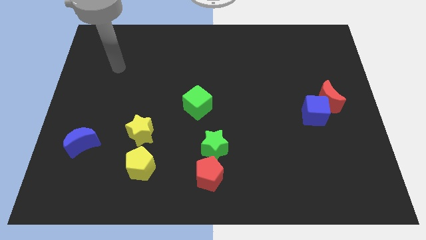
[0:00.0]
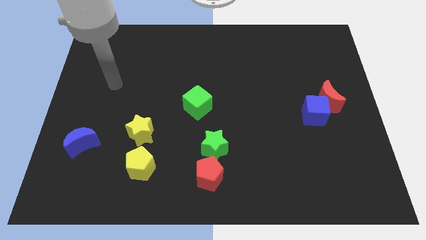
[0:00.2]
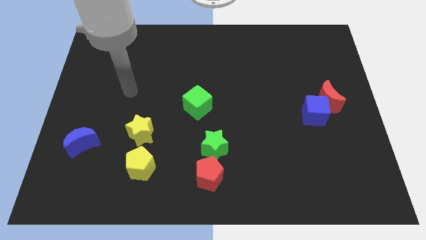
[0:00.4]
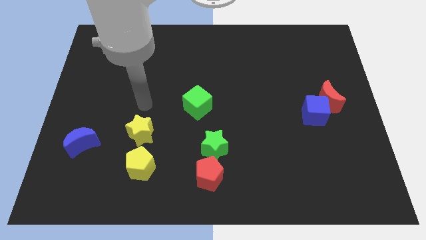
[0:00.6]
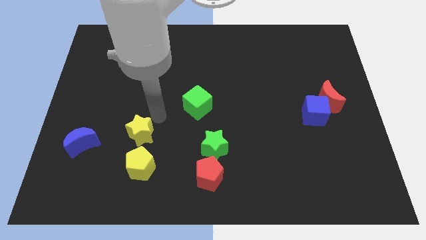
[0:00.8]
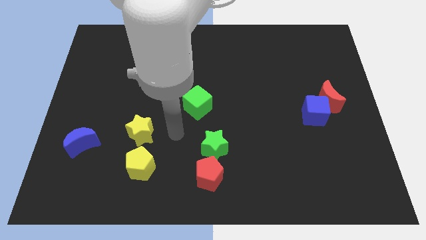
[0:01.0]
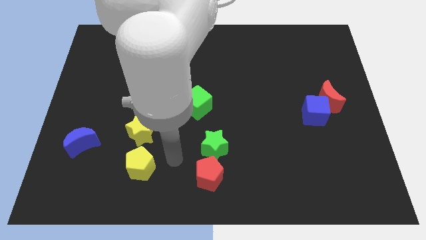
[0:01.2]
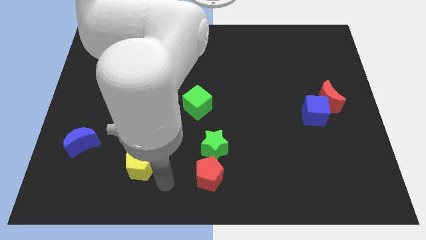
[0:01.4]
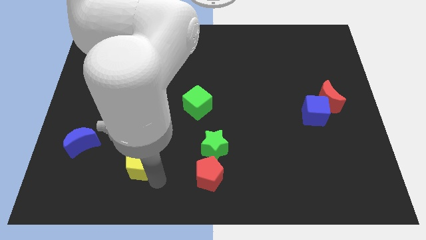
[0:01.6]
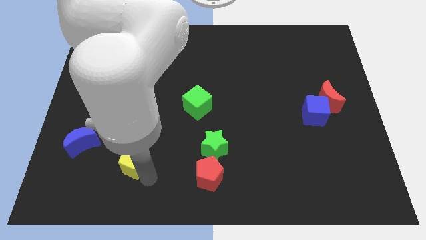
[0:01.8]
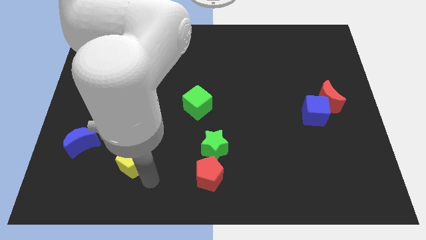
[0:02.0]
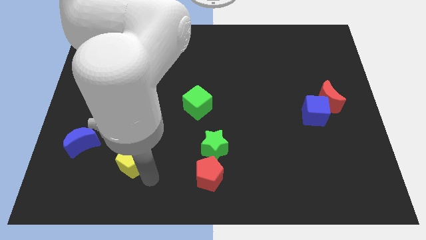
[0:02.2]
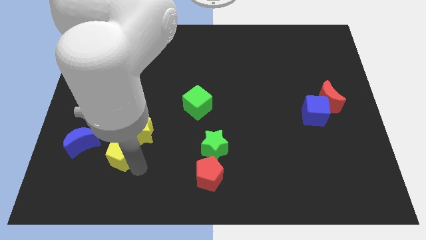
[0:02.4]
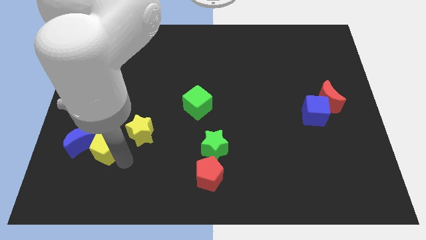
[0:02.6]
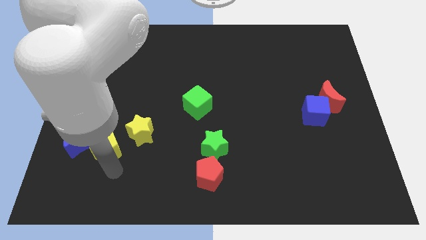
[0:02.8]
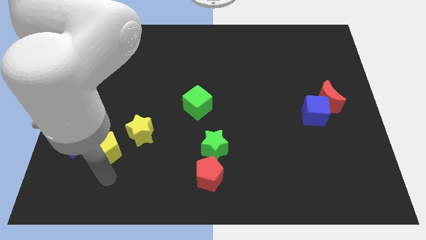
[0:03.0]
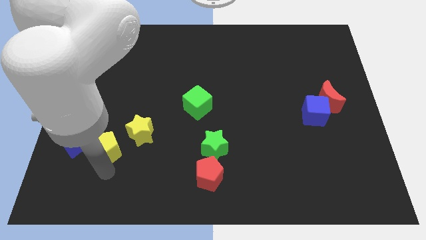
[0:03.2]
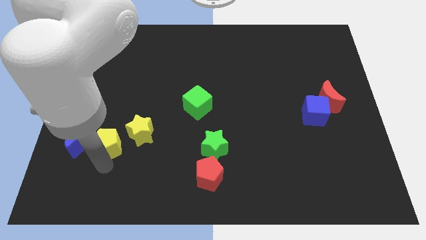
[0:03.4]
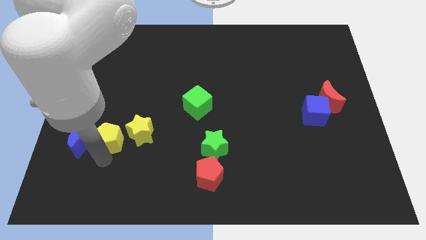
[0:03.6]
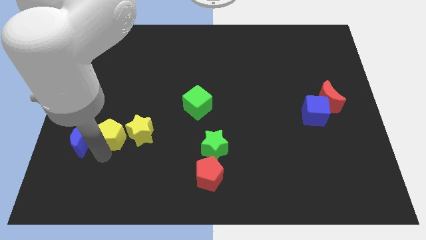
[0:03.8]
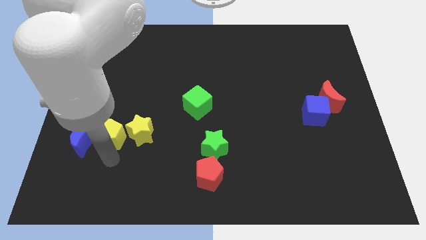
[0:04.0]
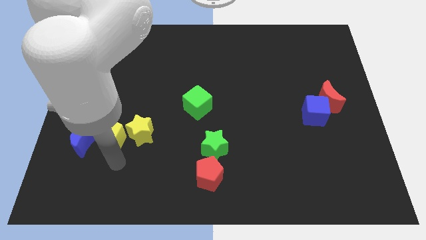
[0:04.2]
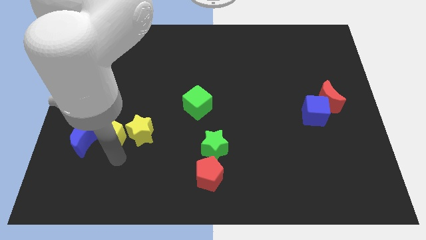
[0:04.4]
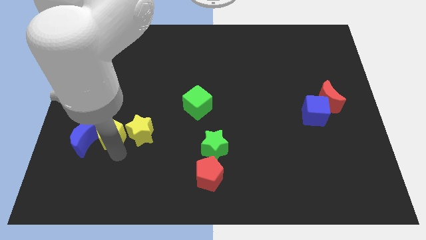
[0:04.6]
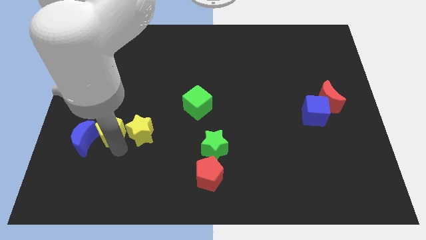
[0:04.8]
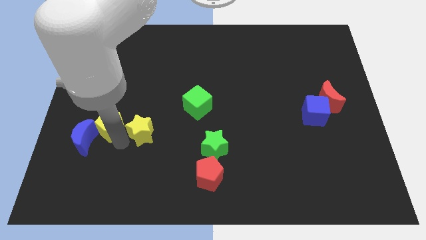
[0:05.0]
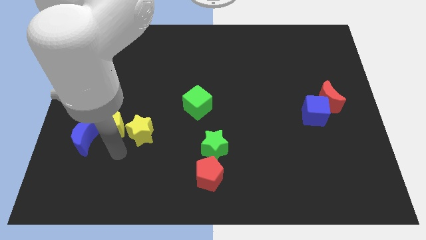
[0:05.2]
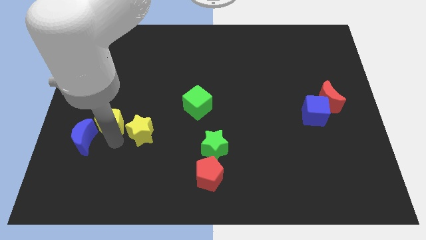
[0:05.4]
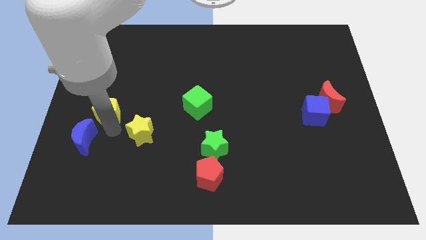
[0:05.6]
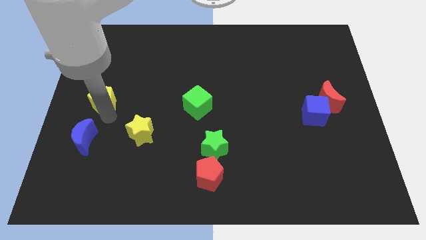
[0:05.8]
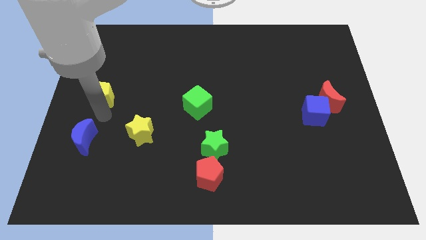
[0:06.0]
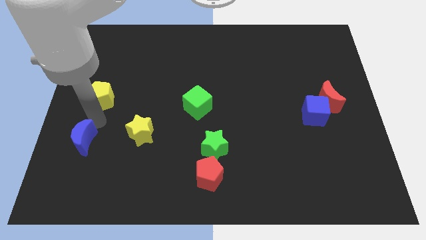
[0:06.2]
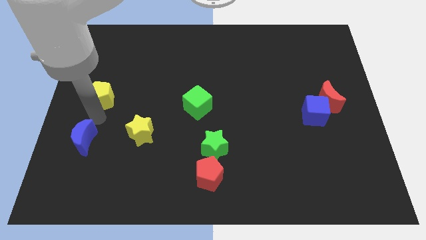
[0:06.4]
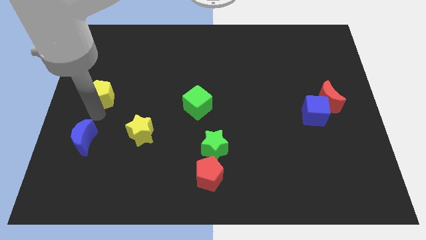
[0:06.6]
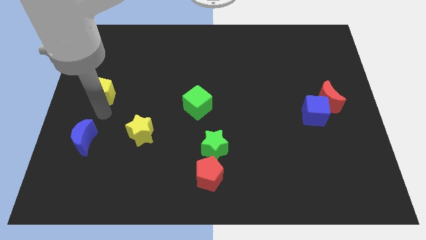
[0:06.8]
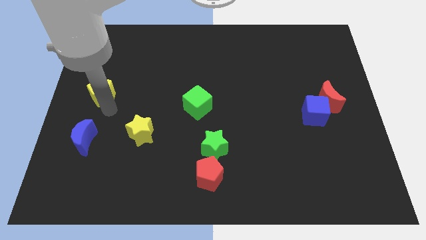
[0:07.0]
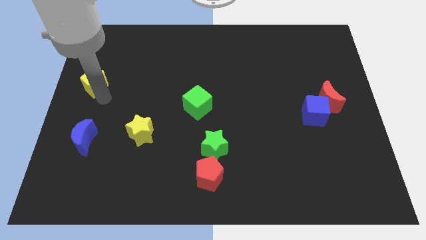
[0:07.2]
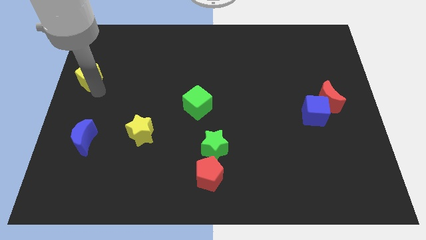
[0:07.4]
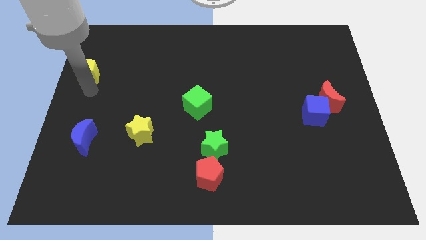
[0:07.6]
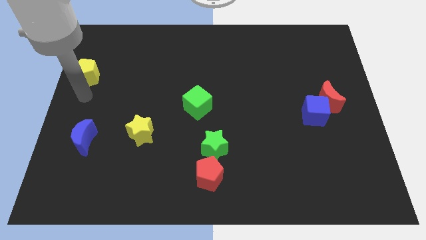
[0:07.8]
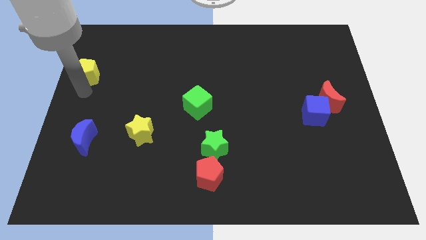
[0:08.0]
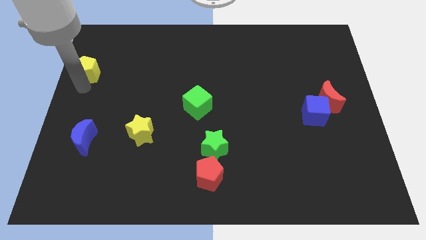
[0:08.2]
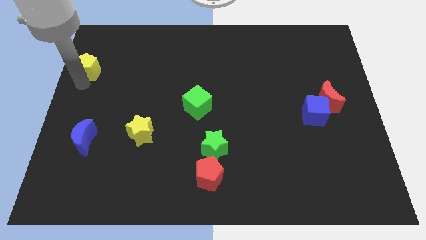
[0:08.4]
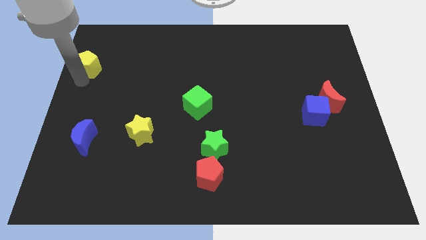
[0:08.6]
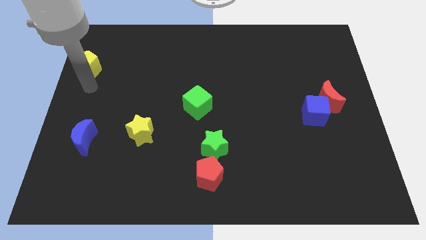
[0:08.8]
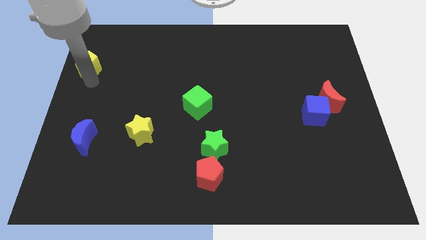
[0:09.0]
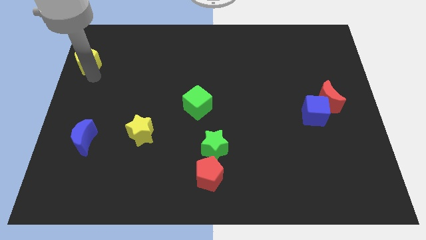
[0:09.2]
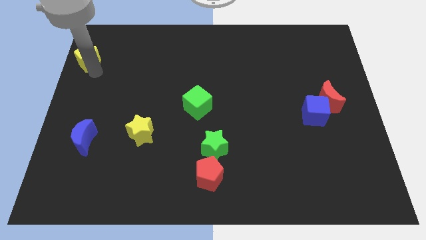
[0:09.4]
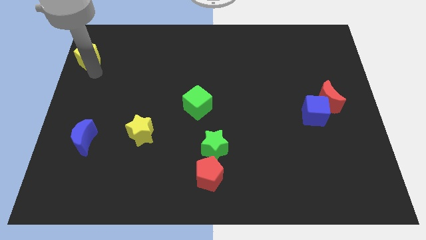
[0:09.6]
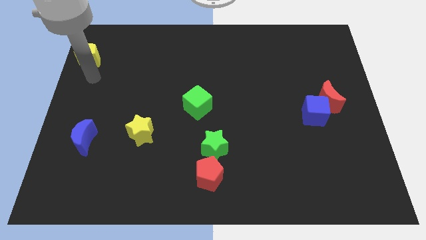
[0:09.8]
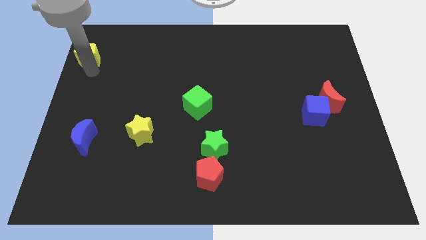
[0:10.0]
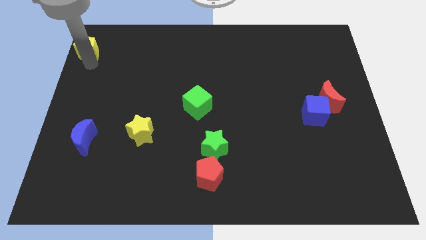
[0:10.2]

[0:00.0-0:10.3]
slide the yellow pentagon to the top left of the board

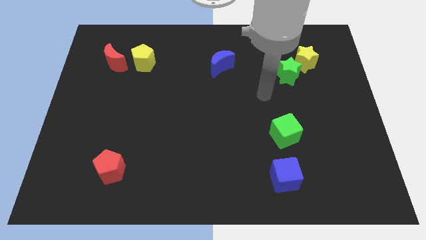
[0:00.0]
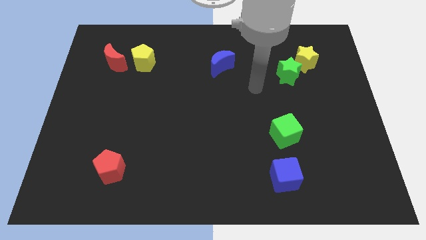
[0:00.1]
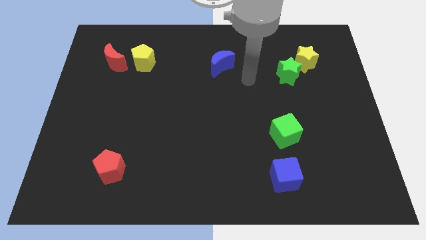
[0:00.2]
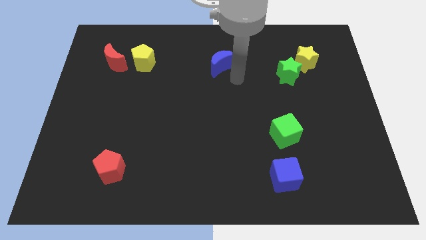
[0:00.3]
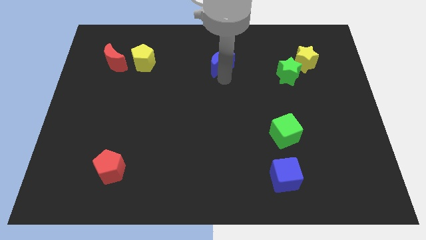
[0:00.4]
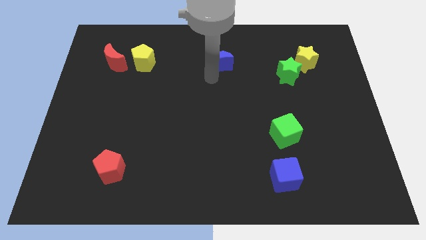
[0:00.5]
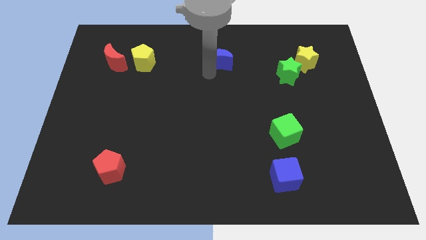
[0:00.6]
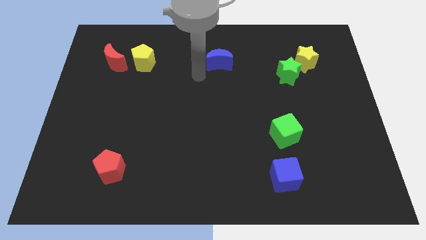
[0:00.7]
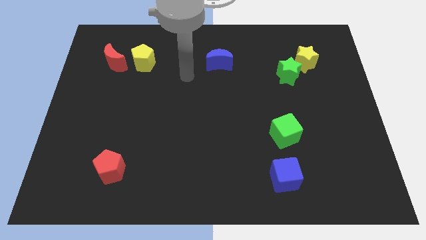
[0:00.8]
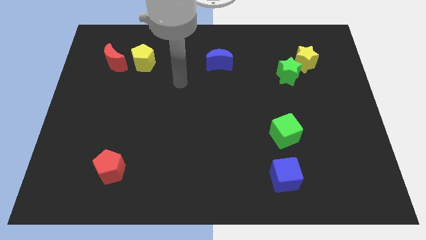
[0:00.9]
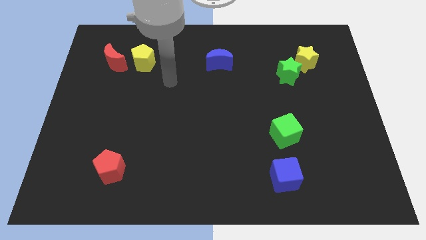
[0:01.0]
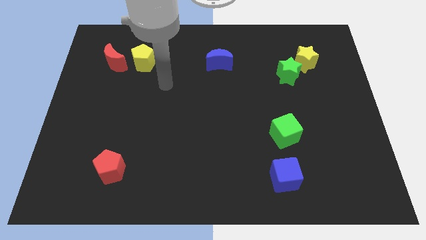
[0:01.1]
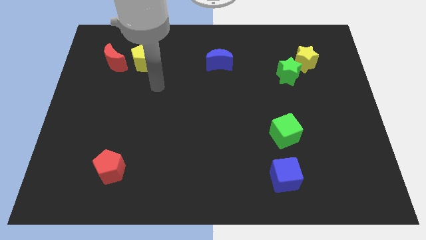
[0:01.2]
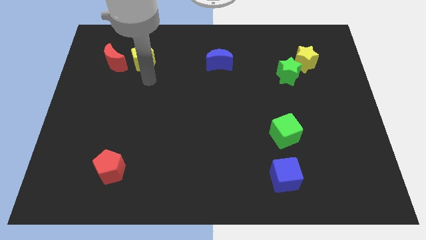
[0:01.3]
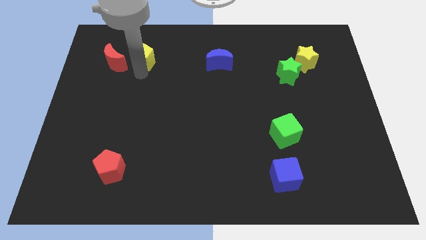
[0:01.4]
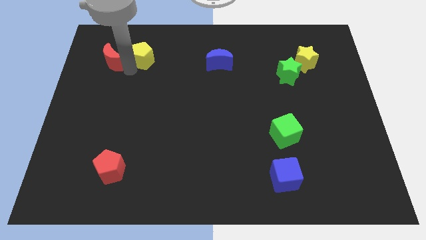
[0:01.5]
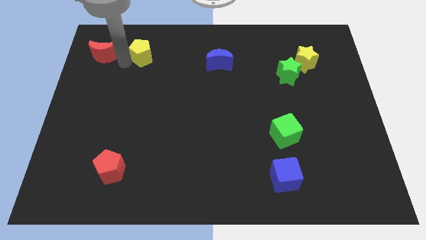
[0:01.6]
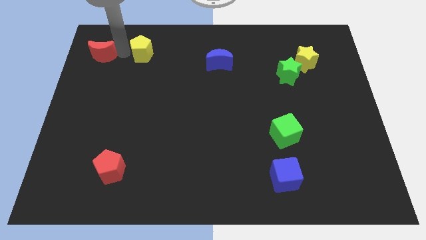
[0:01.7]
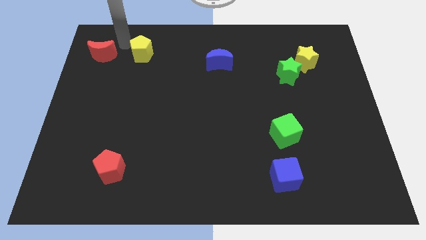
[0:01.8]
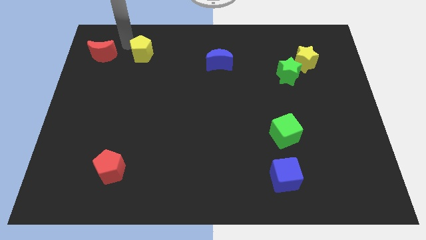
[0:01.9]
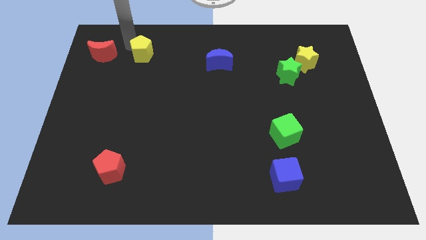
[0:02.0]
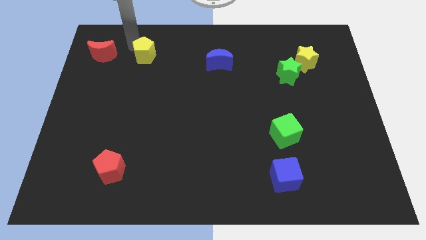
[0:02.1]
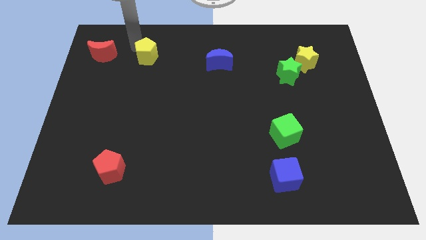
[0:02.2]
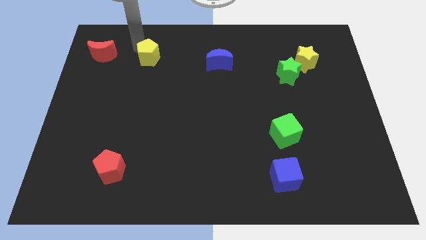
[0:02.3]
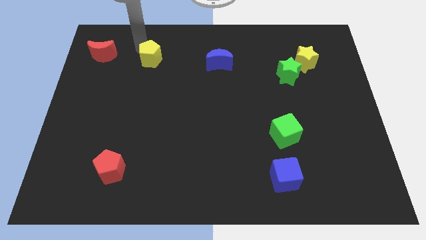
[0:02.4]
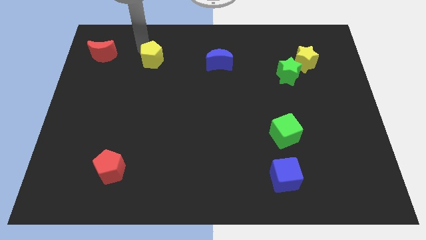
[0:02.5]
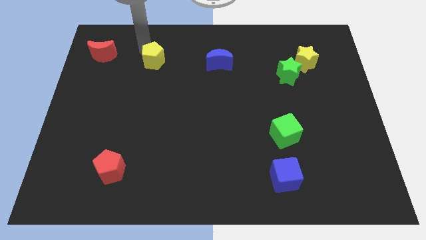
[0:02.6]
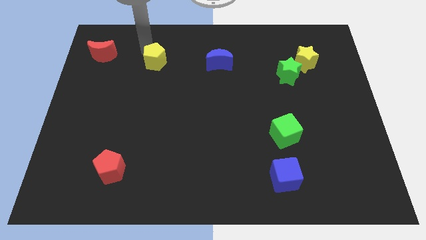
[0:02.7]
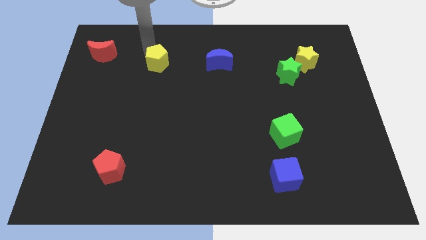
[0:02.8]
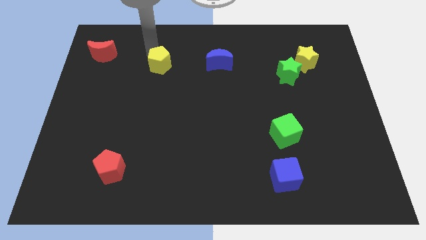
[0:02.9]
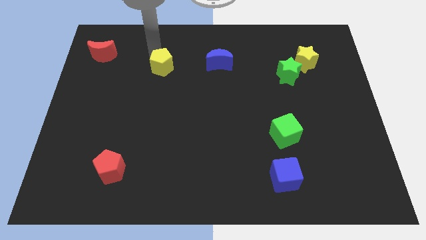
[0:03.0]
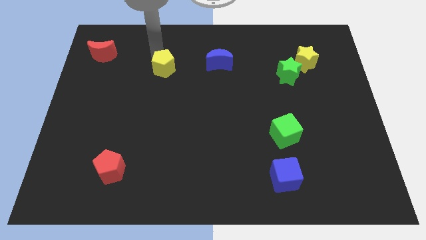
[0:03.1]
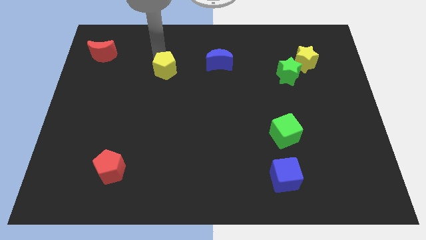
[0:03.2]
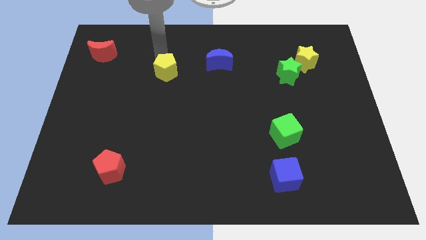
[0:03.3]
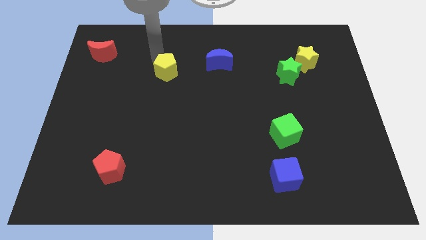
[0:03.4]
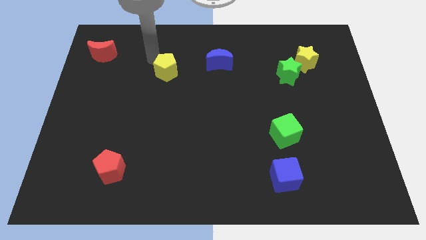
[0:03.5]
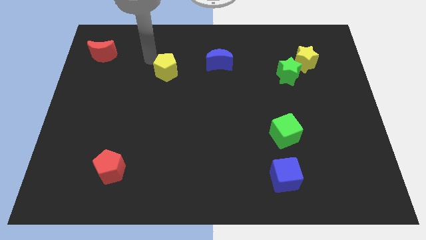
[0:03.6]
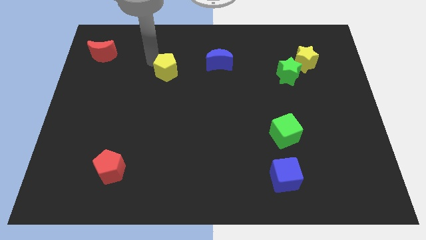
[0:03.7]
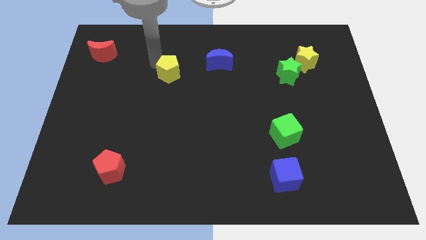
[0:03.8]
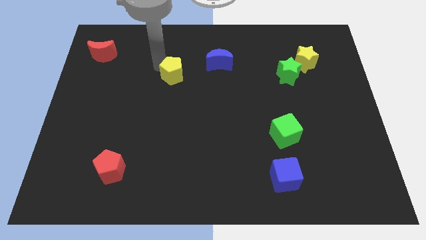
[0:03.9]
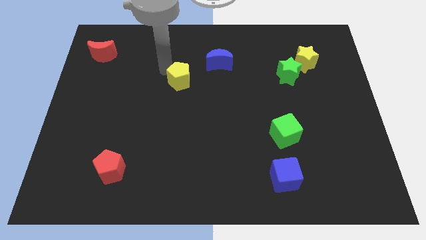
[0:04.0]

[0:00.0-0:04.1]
slide the yellow pentagon to the center
